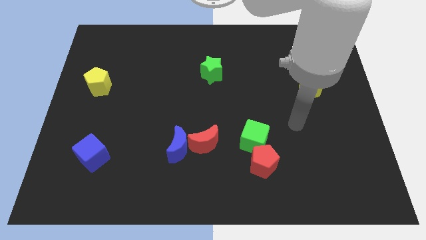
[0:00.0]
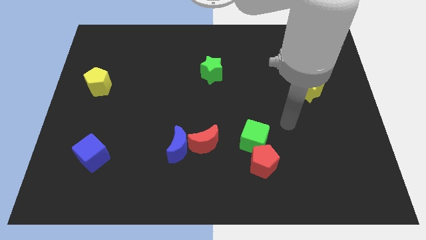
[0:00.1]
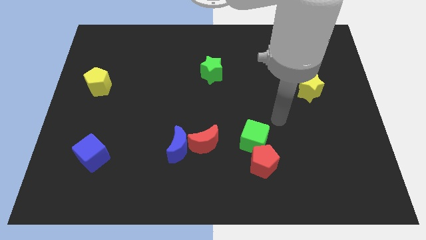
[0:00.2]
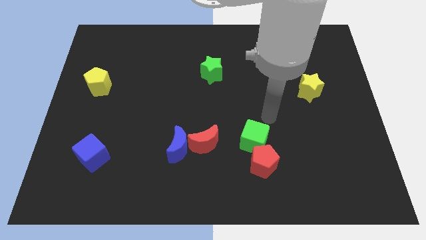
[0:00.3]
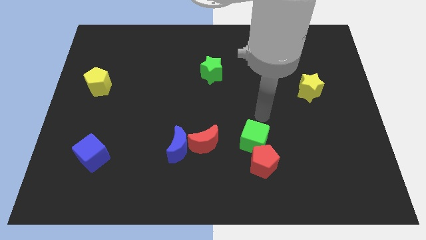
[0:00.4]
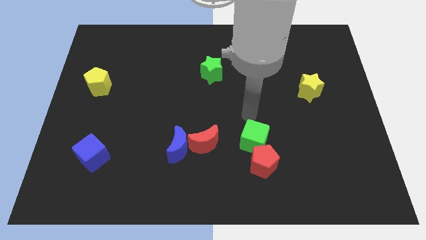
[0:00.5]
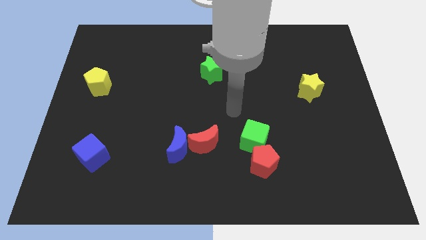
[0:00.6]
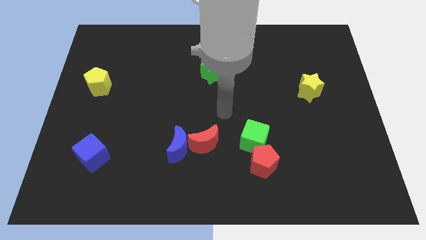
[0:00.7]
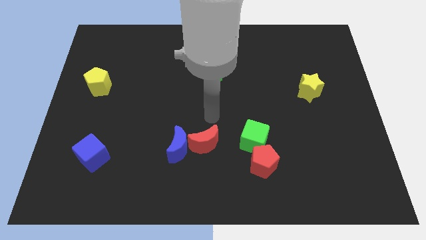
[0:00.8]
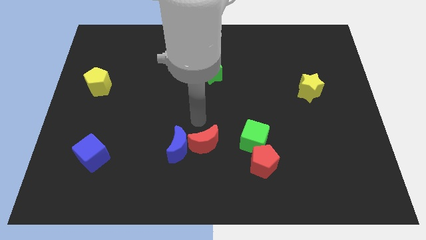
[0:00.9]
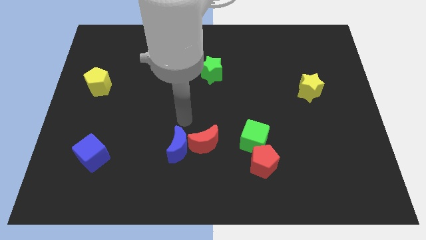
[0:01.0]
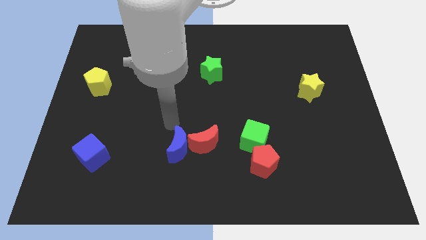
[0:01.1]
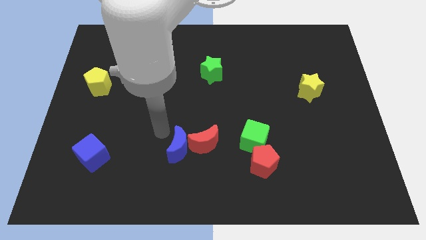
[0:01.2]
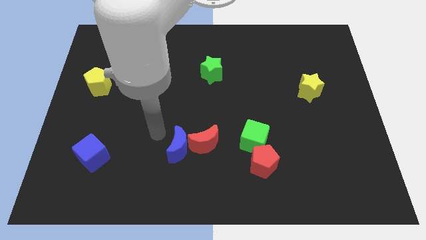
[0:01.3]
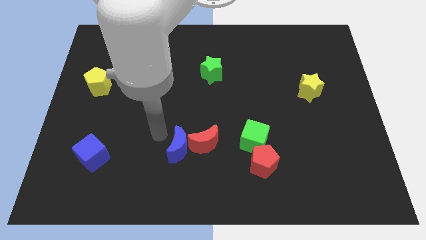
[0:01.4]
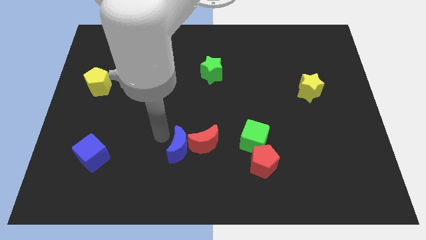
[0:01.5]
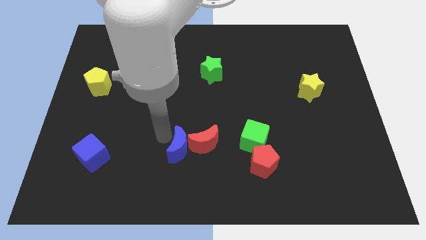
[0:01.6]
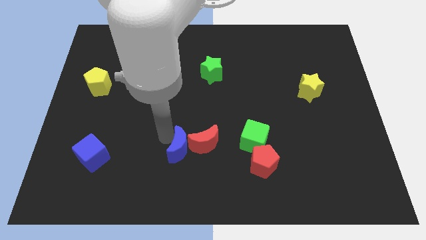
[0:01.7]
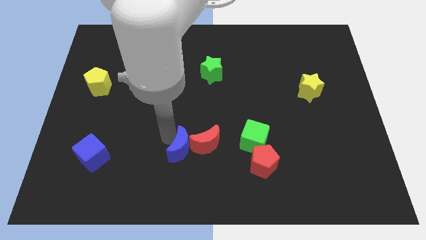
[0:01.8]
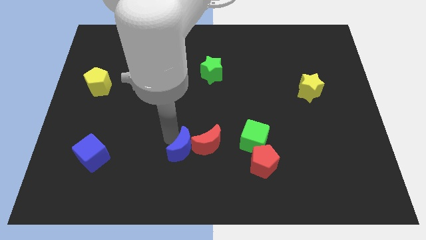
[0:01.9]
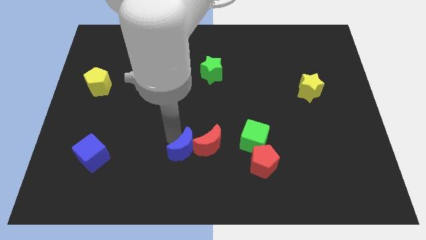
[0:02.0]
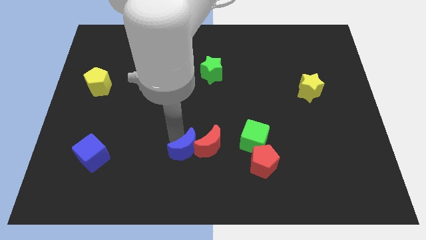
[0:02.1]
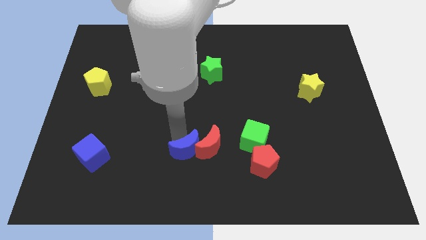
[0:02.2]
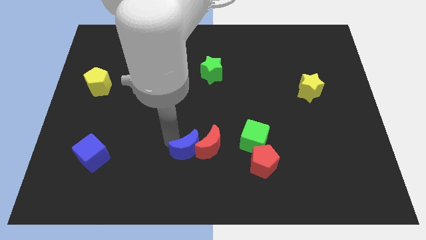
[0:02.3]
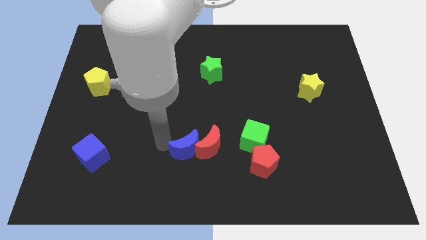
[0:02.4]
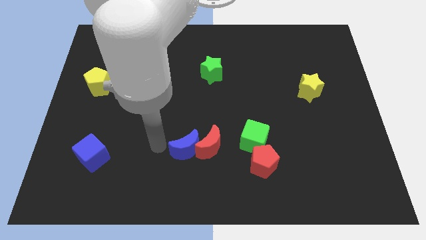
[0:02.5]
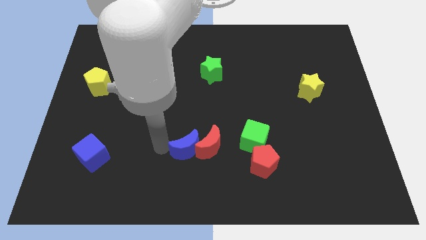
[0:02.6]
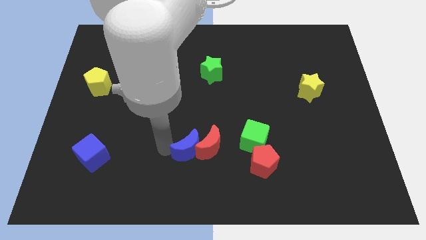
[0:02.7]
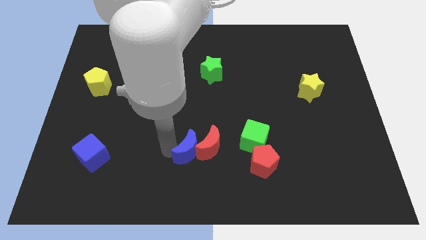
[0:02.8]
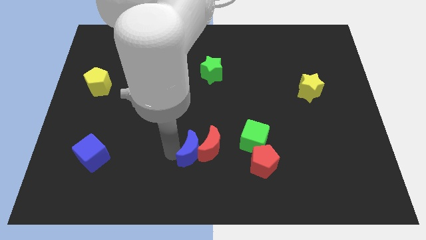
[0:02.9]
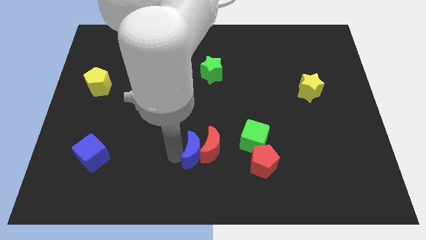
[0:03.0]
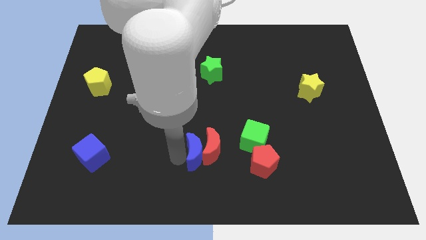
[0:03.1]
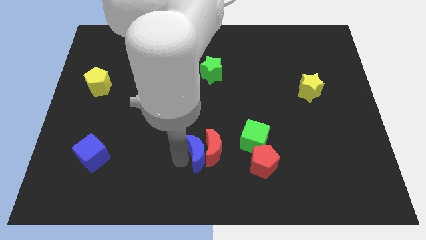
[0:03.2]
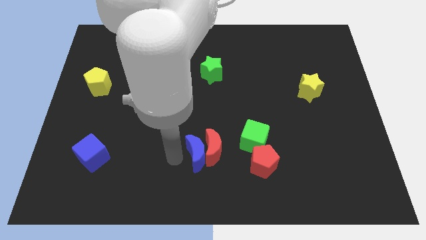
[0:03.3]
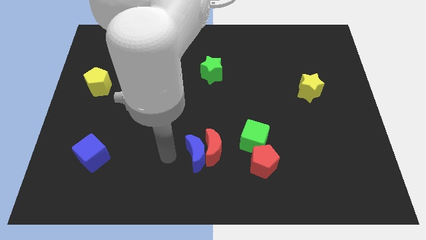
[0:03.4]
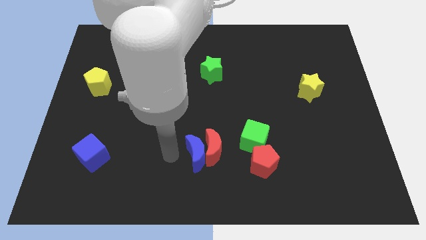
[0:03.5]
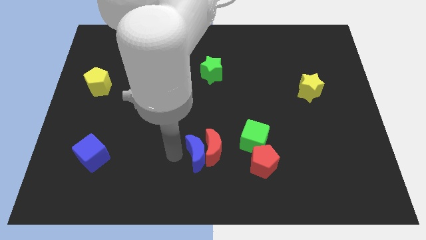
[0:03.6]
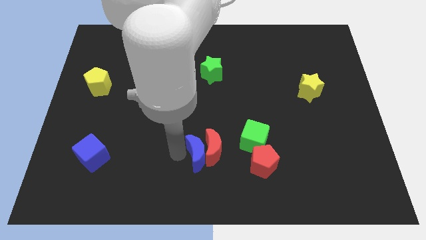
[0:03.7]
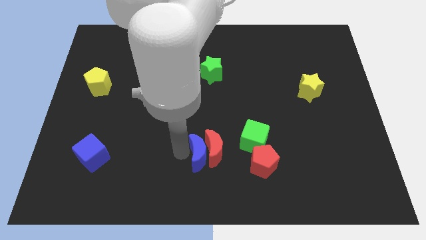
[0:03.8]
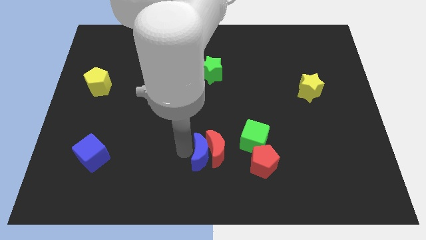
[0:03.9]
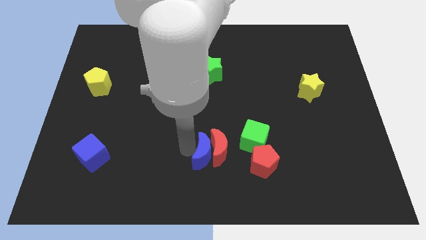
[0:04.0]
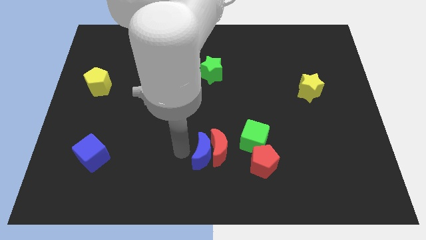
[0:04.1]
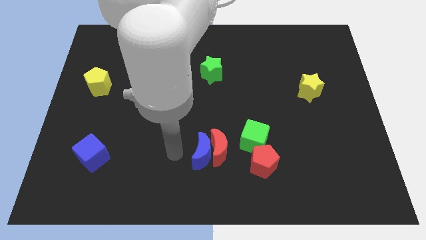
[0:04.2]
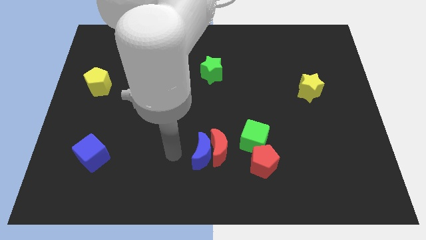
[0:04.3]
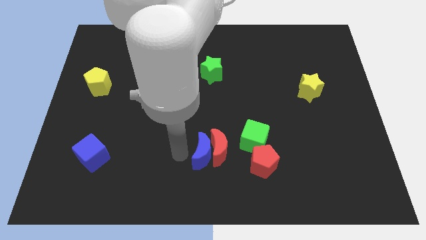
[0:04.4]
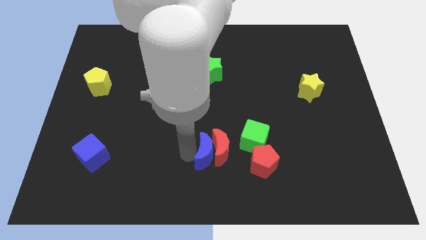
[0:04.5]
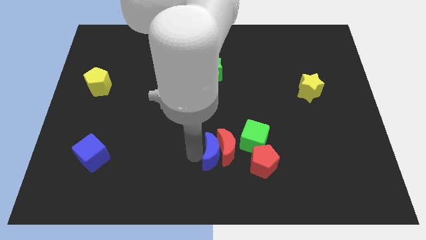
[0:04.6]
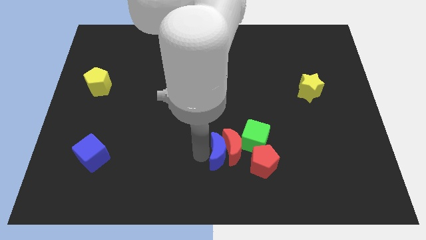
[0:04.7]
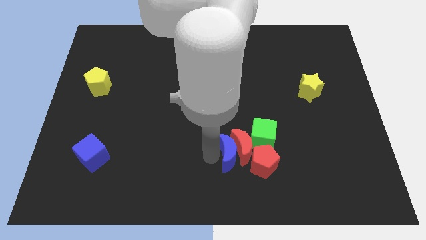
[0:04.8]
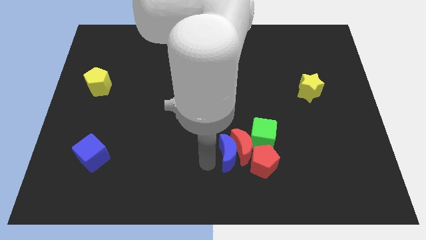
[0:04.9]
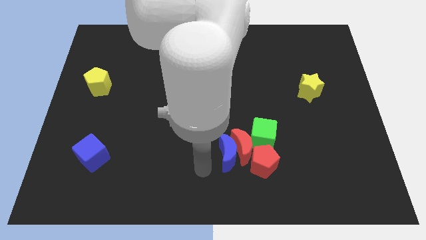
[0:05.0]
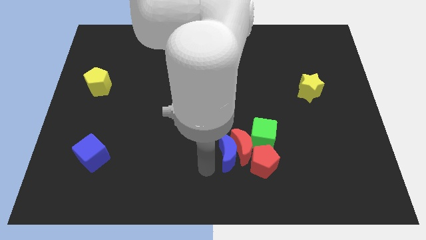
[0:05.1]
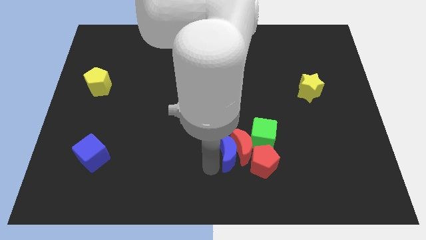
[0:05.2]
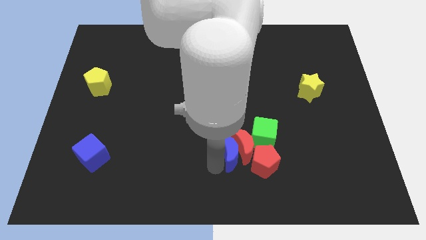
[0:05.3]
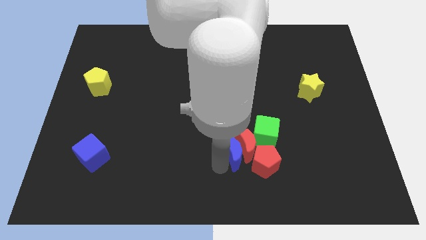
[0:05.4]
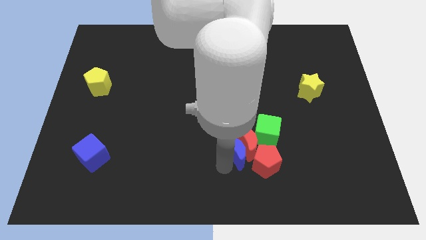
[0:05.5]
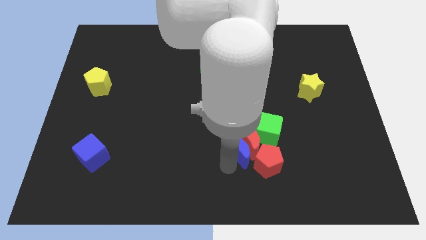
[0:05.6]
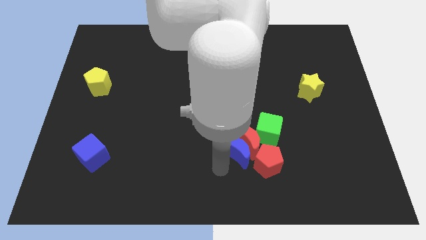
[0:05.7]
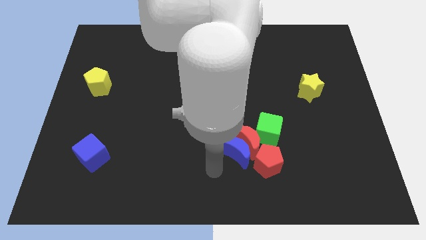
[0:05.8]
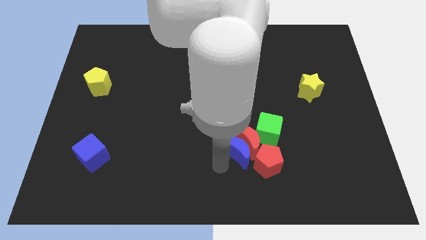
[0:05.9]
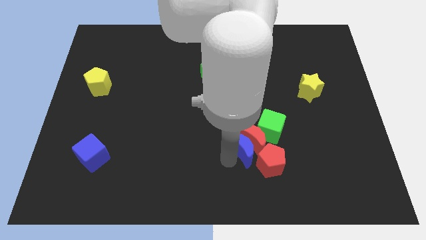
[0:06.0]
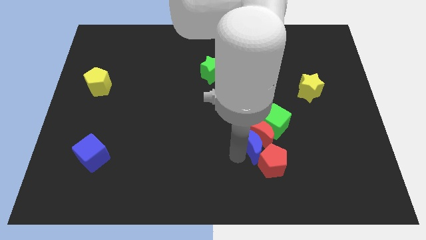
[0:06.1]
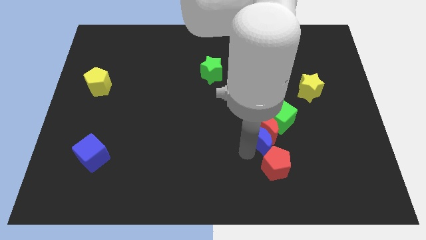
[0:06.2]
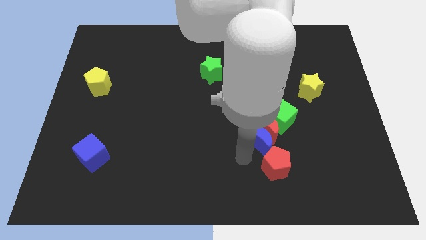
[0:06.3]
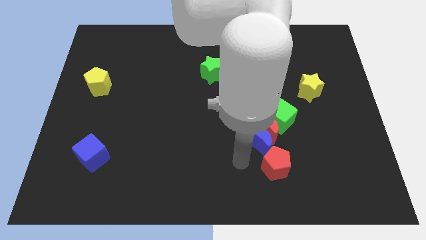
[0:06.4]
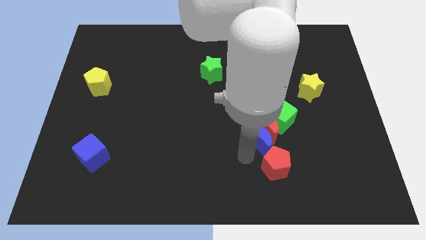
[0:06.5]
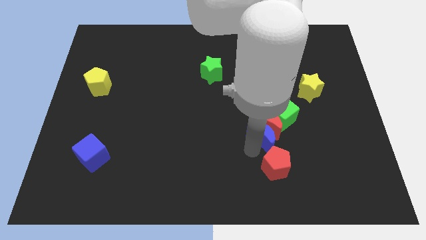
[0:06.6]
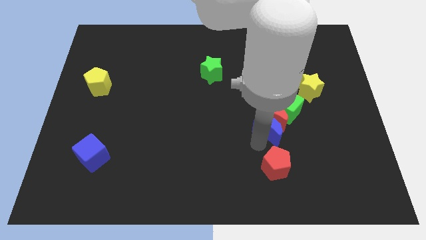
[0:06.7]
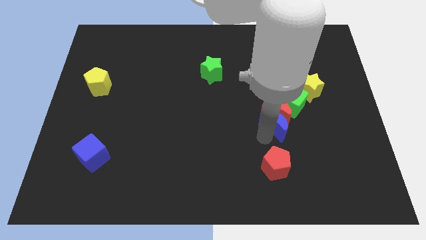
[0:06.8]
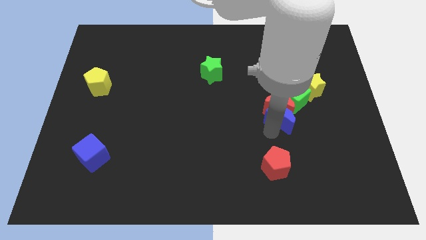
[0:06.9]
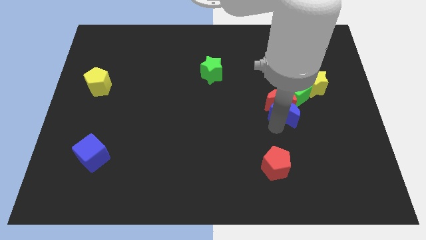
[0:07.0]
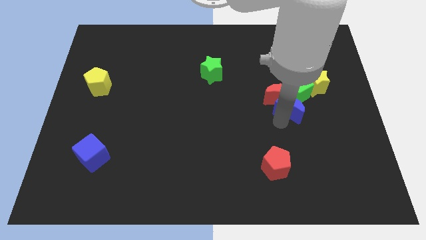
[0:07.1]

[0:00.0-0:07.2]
put the blue moon next to the green cube

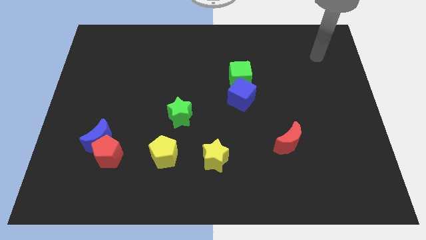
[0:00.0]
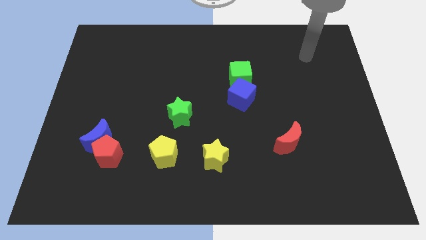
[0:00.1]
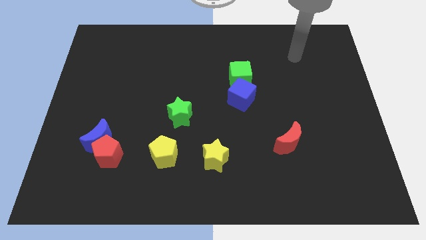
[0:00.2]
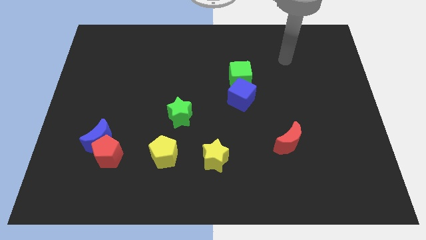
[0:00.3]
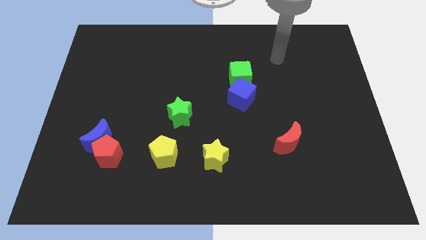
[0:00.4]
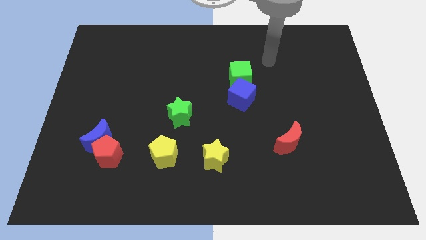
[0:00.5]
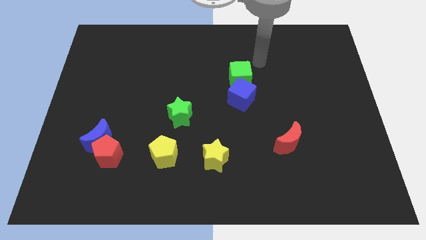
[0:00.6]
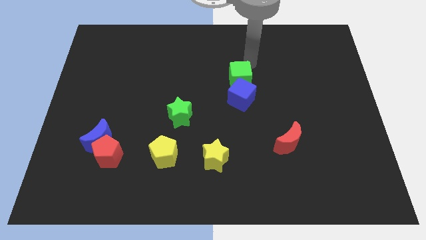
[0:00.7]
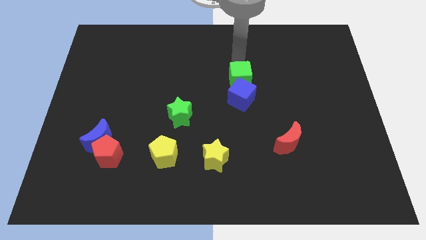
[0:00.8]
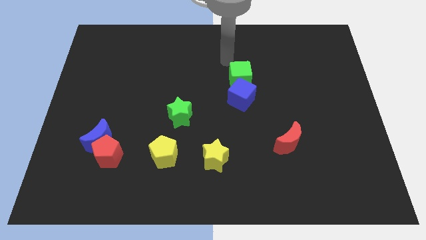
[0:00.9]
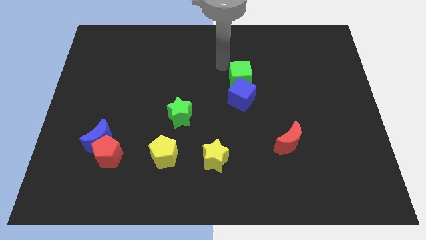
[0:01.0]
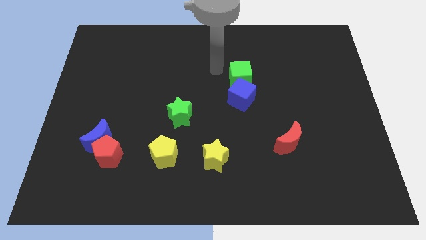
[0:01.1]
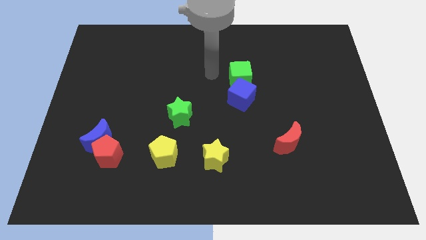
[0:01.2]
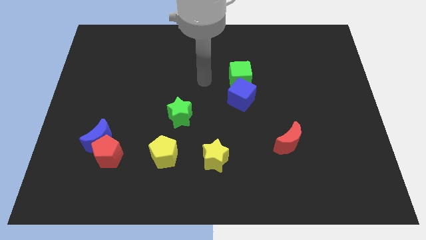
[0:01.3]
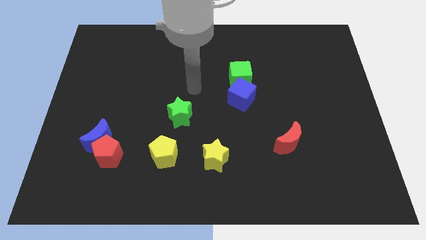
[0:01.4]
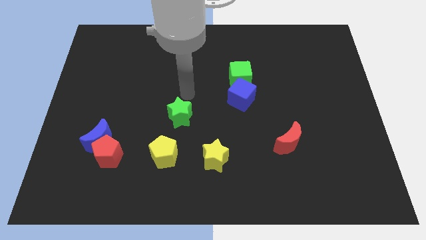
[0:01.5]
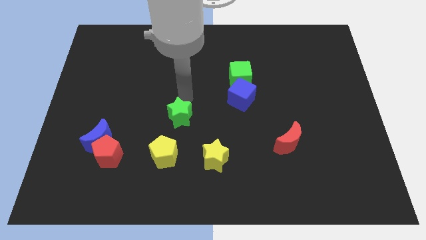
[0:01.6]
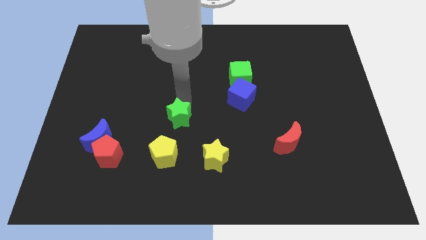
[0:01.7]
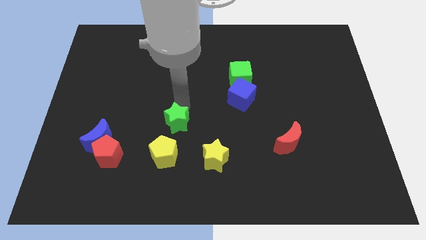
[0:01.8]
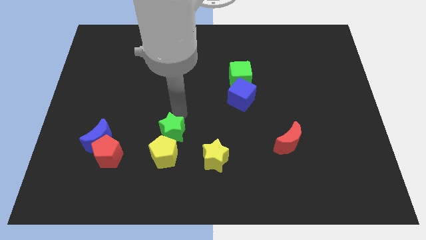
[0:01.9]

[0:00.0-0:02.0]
move the green star towards the yellow pentagon
